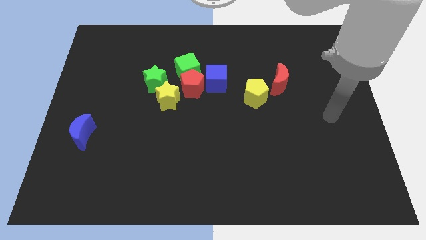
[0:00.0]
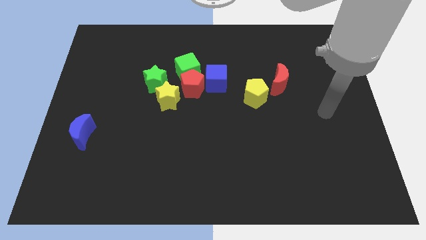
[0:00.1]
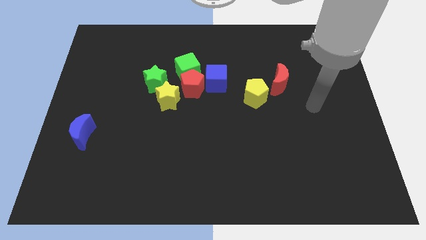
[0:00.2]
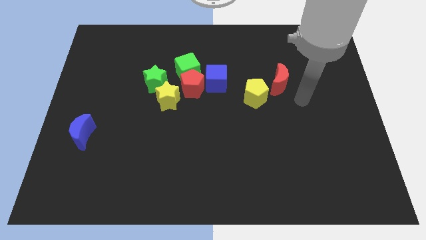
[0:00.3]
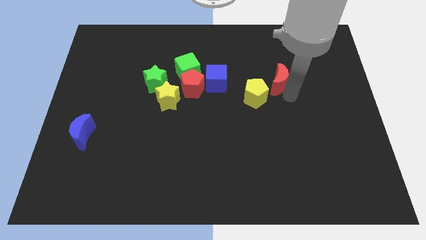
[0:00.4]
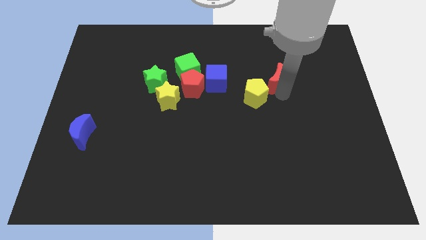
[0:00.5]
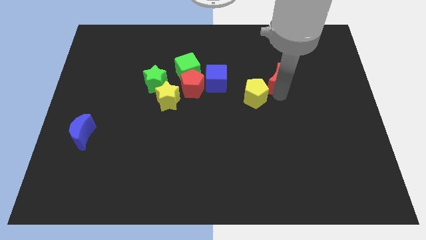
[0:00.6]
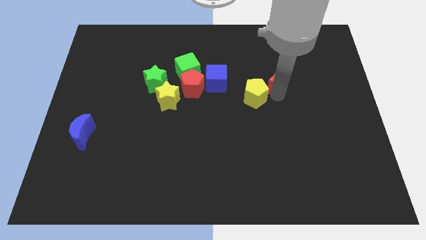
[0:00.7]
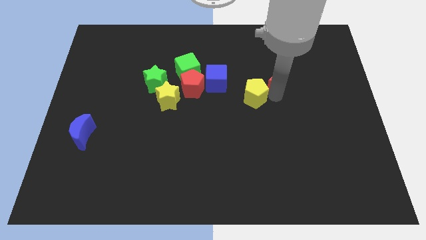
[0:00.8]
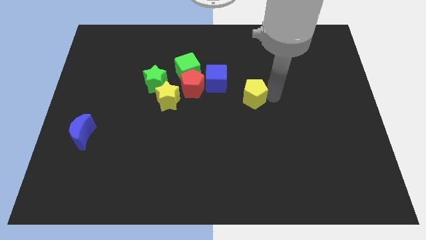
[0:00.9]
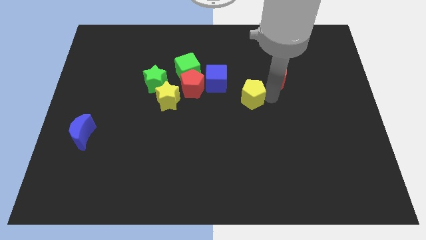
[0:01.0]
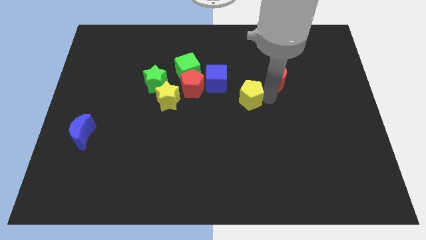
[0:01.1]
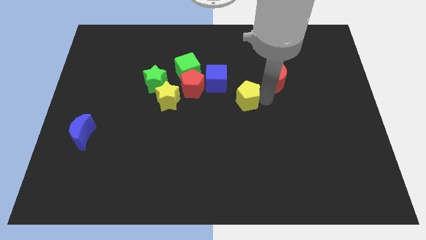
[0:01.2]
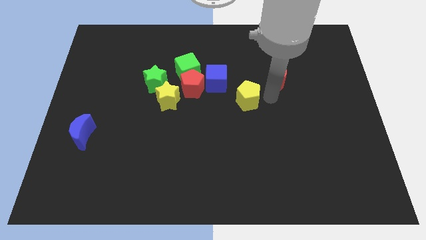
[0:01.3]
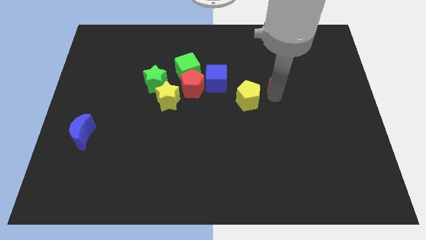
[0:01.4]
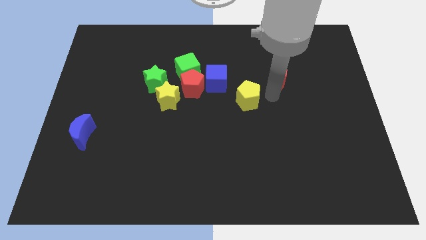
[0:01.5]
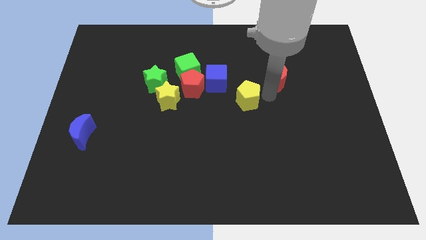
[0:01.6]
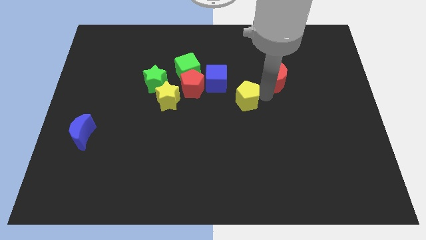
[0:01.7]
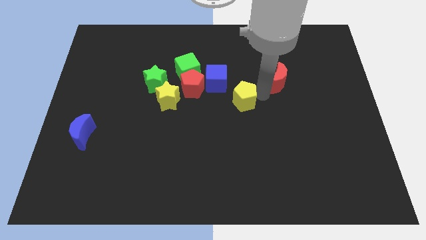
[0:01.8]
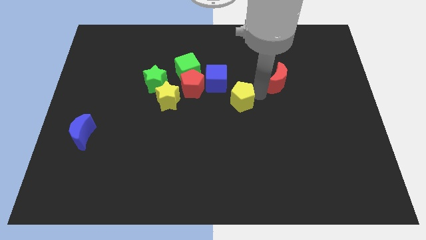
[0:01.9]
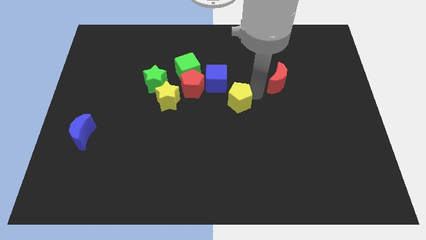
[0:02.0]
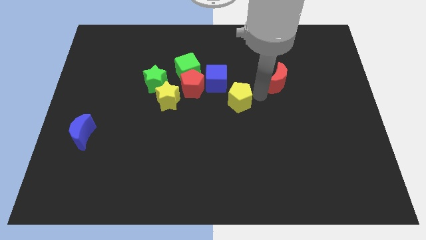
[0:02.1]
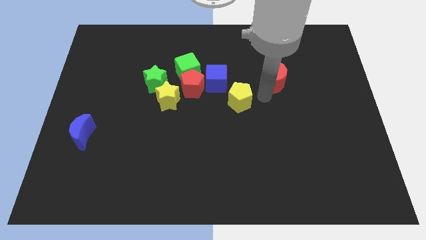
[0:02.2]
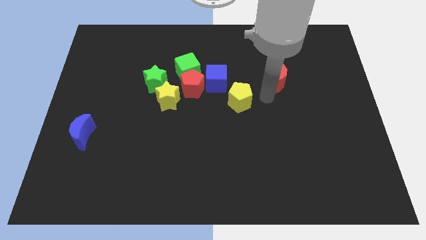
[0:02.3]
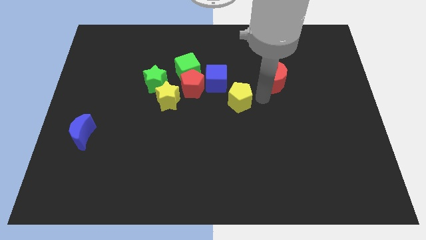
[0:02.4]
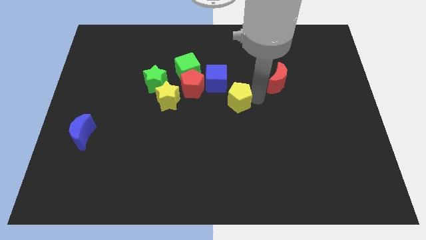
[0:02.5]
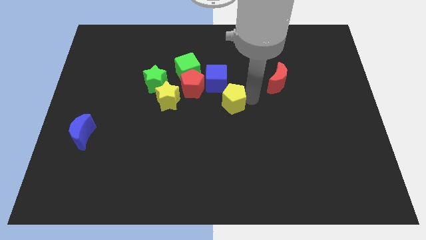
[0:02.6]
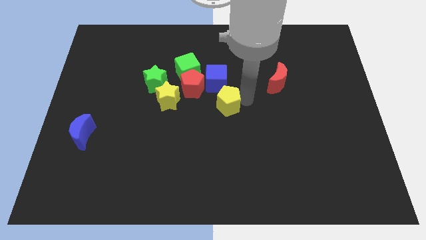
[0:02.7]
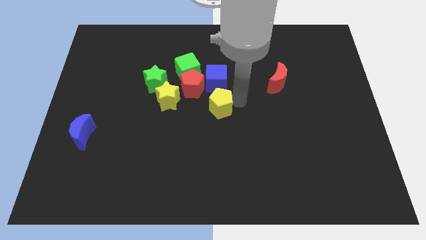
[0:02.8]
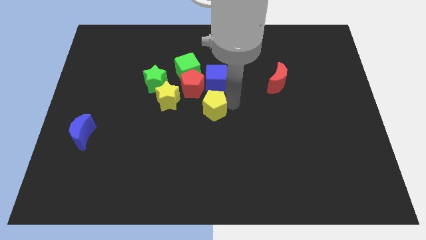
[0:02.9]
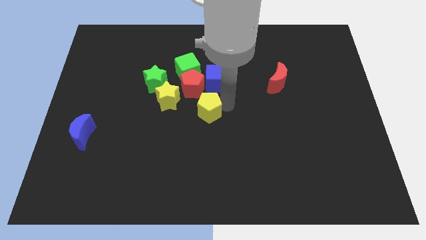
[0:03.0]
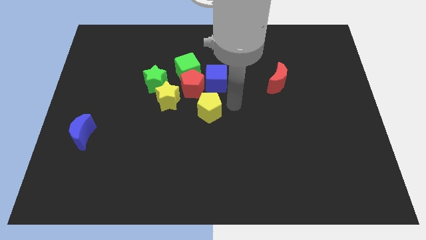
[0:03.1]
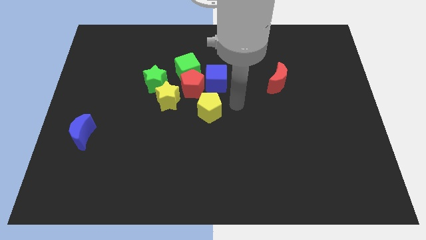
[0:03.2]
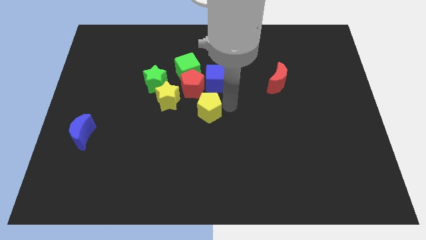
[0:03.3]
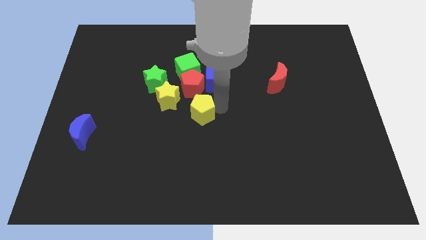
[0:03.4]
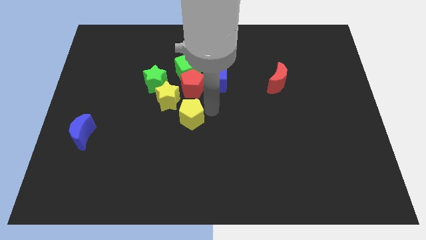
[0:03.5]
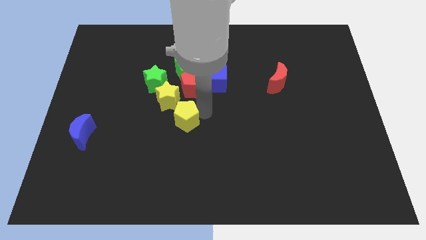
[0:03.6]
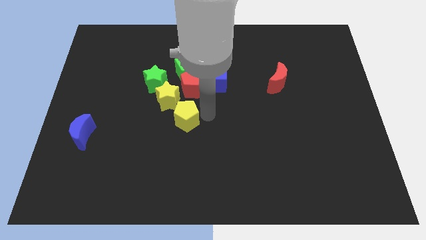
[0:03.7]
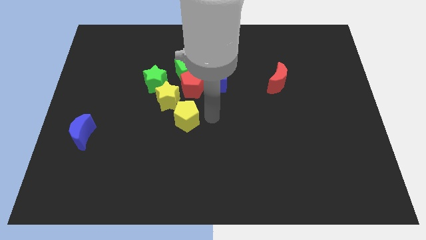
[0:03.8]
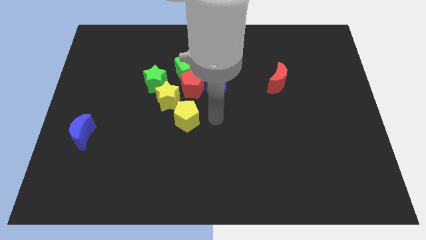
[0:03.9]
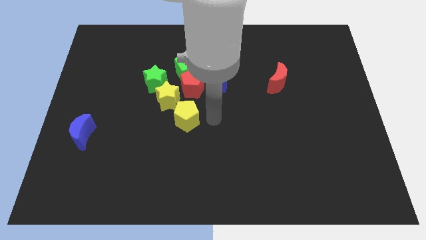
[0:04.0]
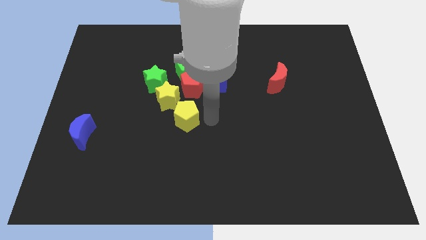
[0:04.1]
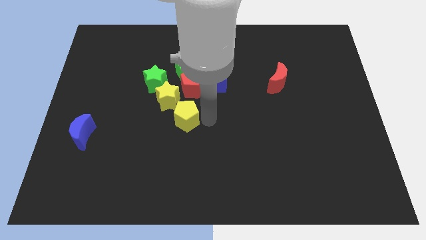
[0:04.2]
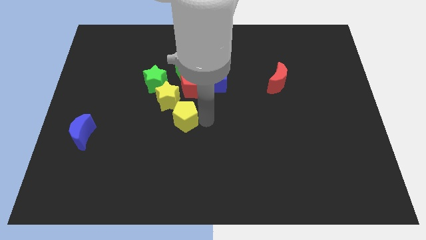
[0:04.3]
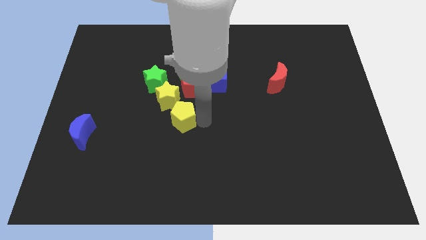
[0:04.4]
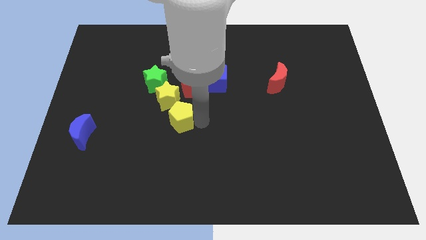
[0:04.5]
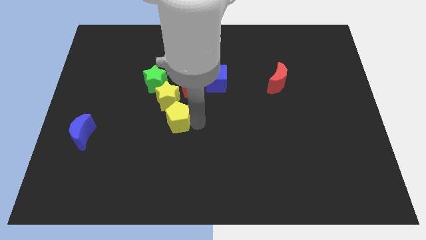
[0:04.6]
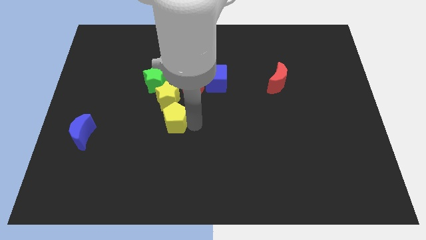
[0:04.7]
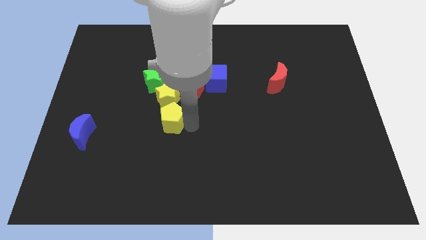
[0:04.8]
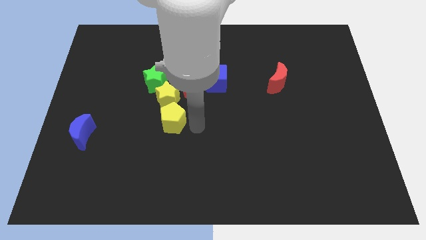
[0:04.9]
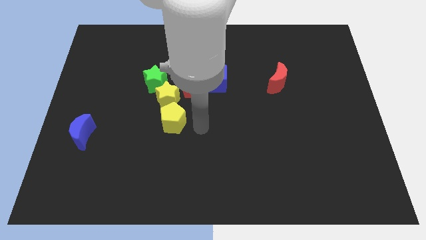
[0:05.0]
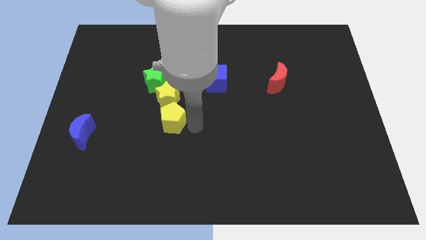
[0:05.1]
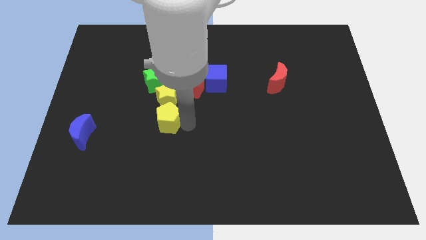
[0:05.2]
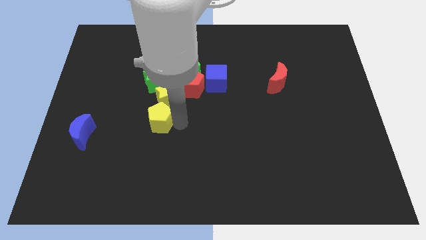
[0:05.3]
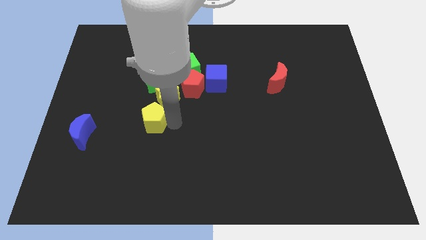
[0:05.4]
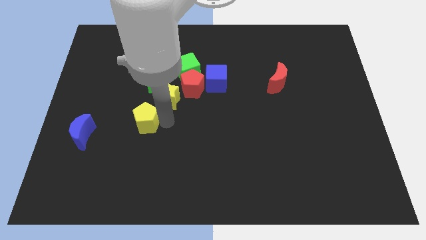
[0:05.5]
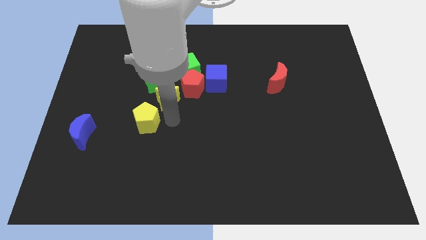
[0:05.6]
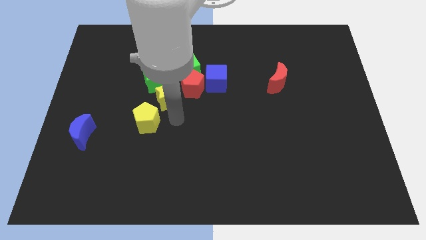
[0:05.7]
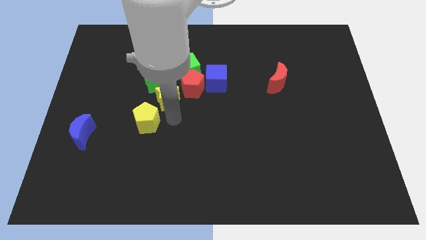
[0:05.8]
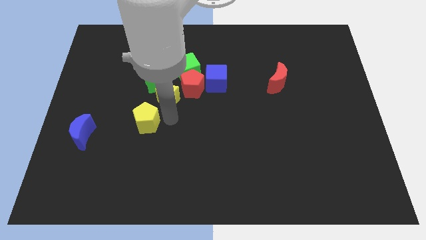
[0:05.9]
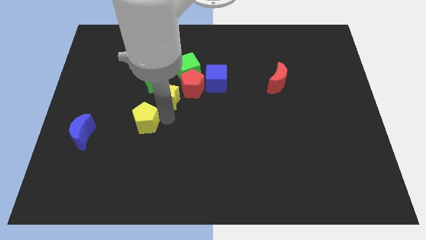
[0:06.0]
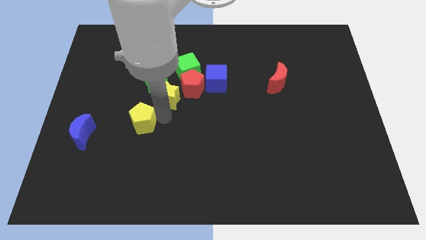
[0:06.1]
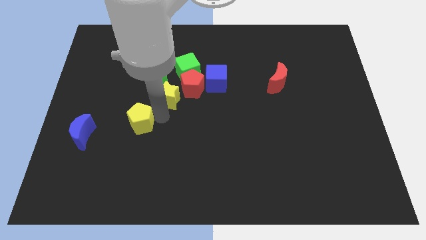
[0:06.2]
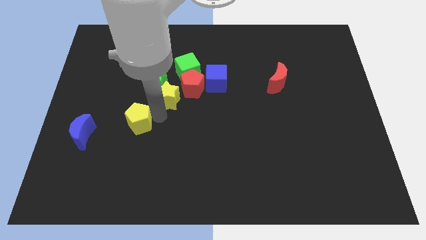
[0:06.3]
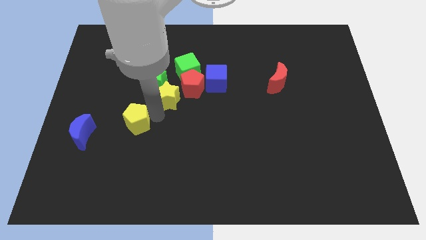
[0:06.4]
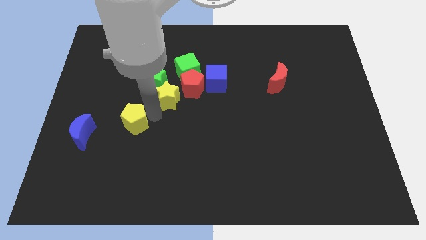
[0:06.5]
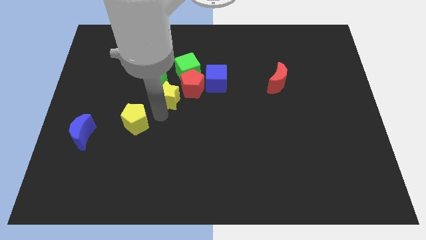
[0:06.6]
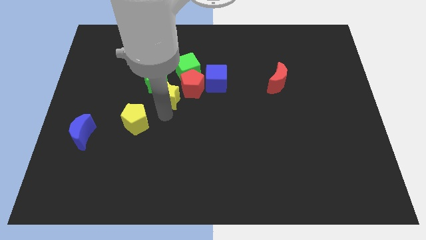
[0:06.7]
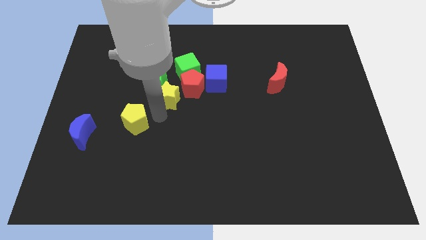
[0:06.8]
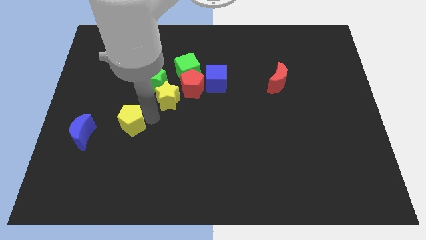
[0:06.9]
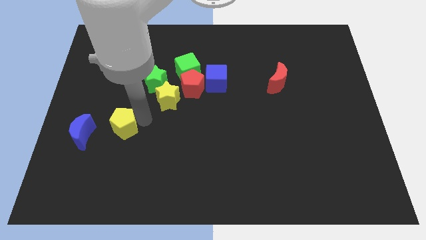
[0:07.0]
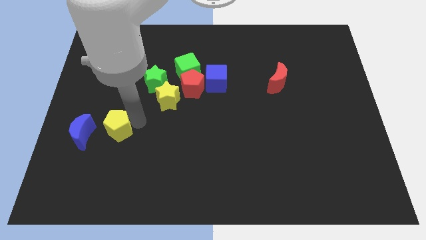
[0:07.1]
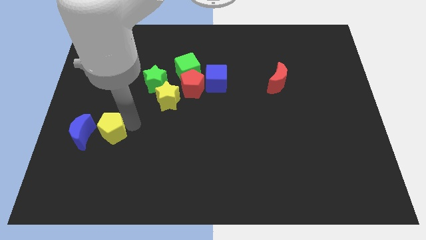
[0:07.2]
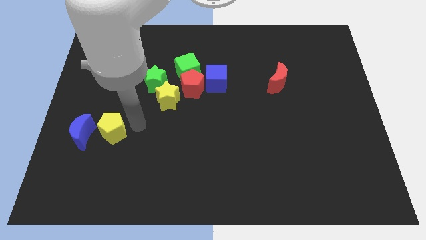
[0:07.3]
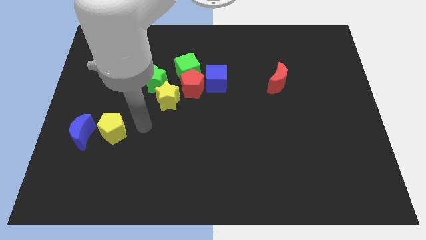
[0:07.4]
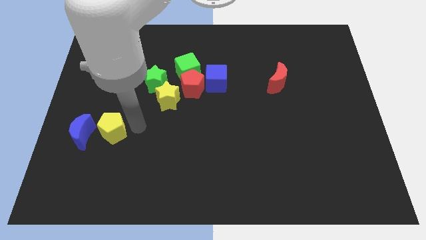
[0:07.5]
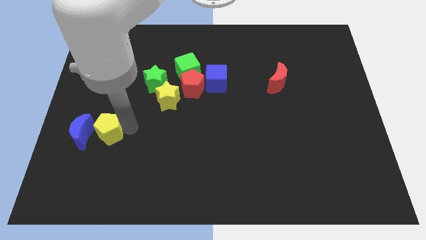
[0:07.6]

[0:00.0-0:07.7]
move the yellow pentagon close to the blue moon
